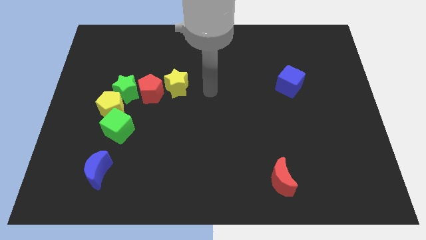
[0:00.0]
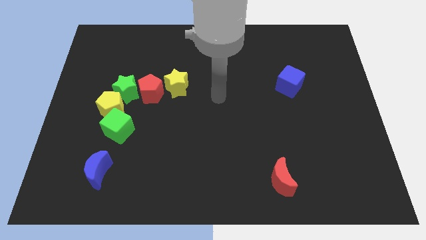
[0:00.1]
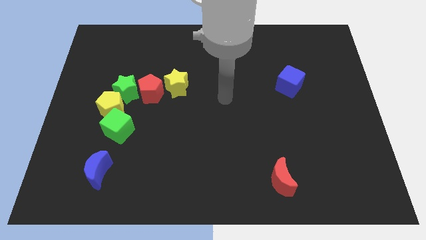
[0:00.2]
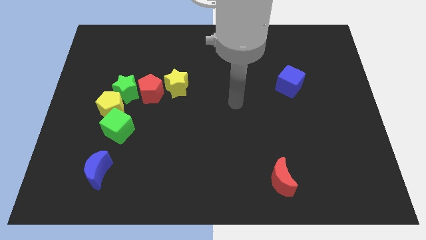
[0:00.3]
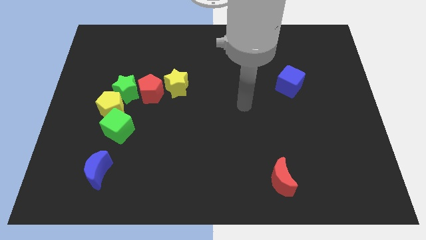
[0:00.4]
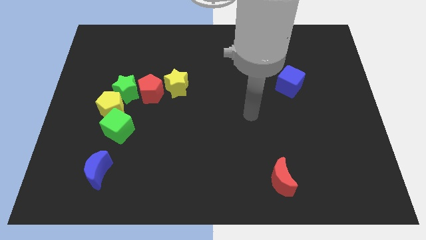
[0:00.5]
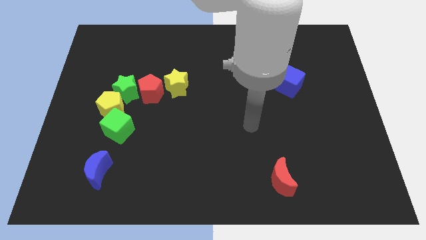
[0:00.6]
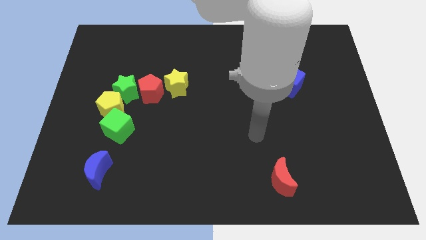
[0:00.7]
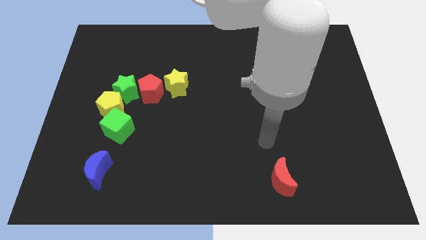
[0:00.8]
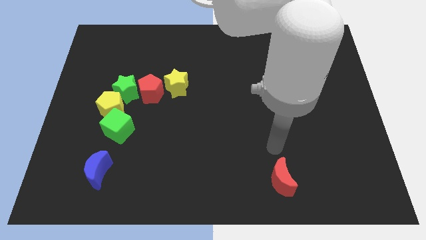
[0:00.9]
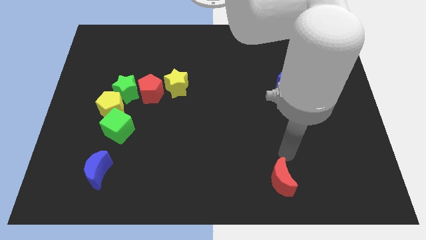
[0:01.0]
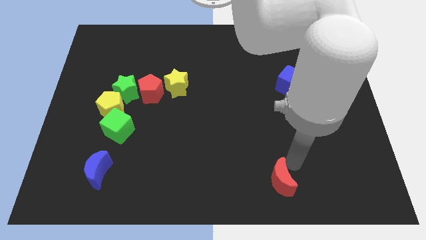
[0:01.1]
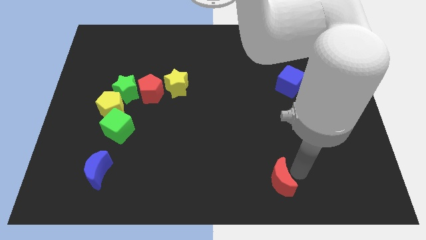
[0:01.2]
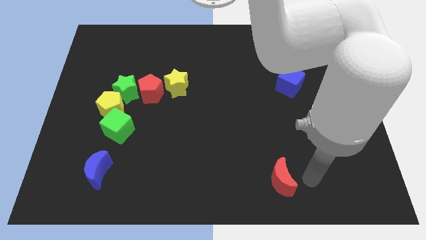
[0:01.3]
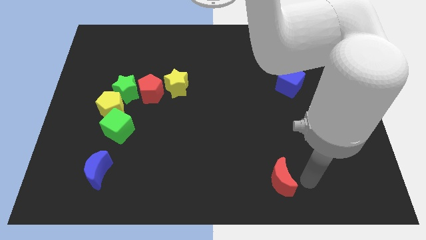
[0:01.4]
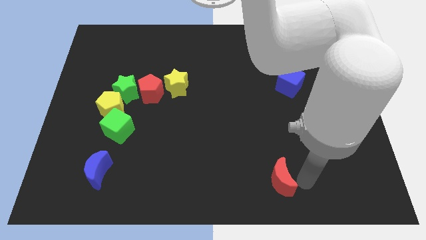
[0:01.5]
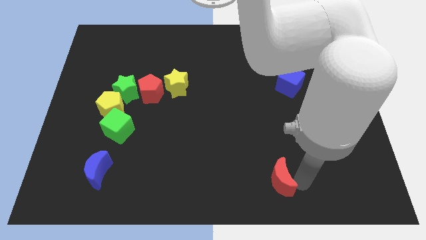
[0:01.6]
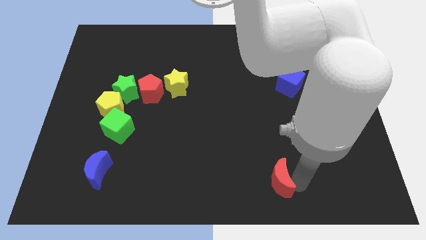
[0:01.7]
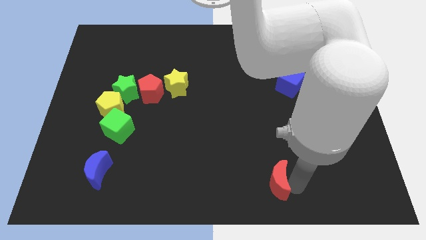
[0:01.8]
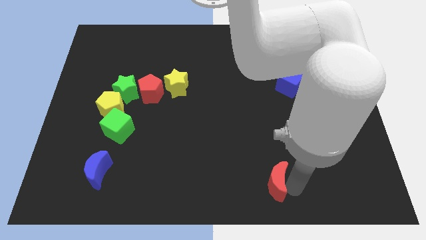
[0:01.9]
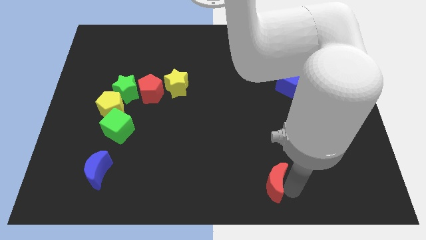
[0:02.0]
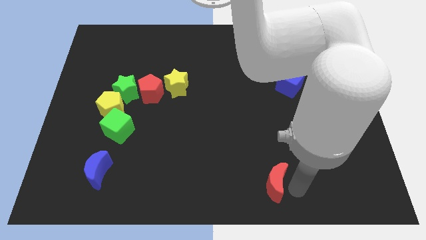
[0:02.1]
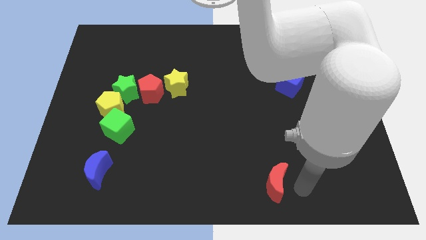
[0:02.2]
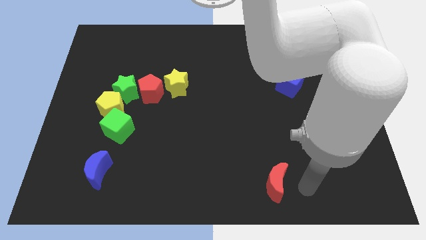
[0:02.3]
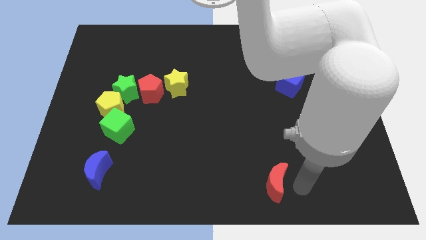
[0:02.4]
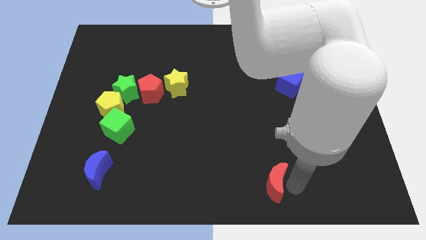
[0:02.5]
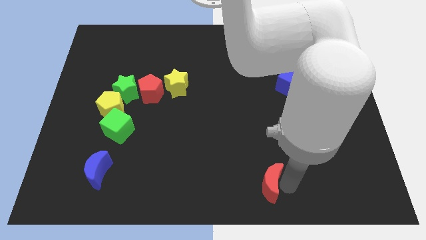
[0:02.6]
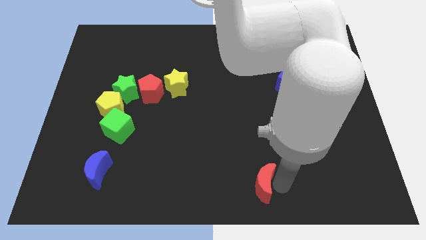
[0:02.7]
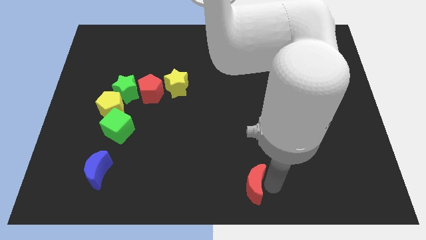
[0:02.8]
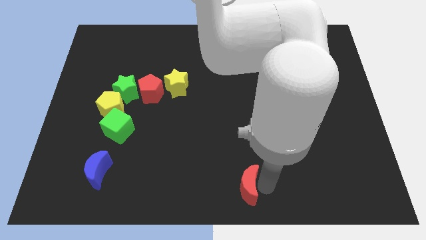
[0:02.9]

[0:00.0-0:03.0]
move the red moon to the left somewhat

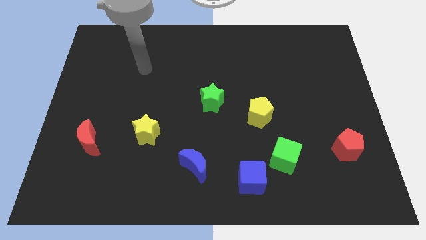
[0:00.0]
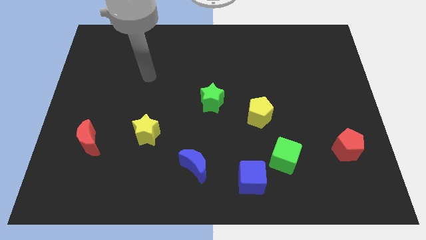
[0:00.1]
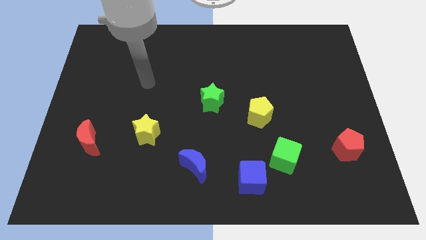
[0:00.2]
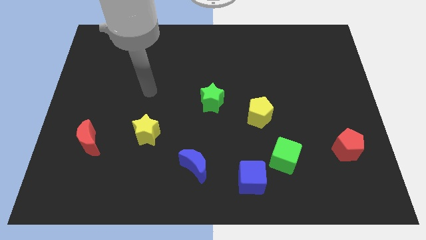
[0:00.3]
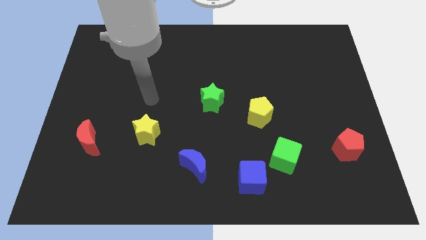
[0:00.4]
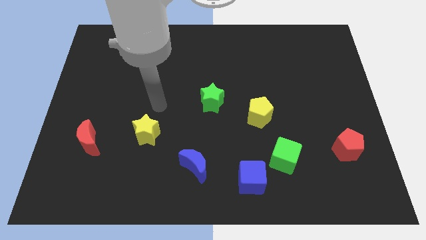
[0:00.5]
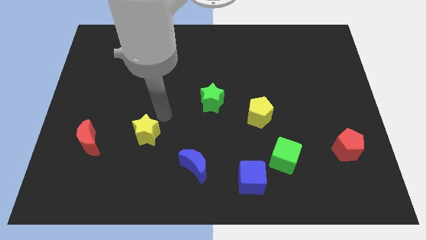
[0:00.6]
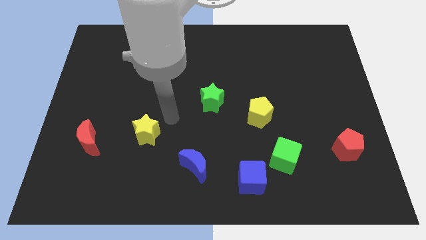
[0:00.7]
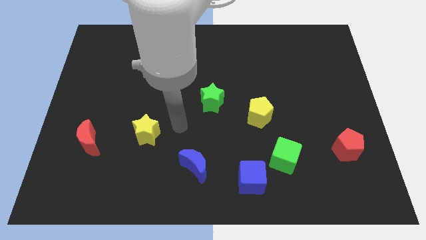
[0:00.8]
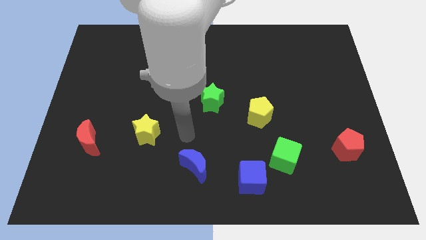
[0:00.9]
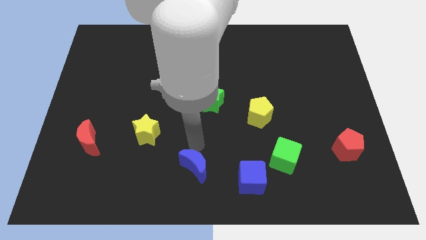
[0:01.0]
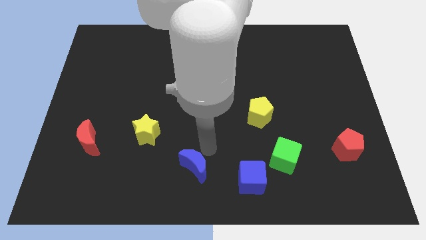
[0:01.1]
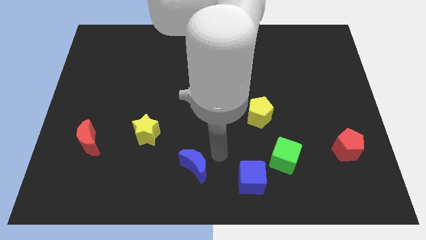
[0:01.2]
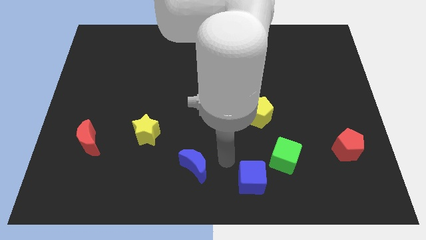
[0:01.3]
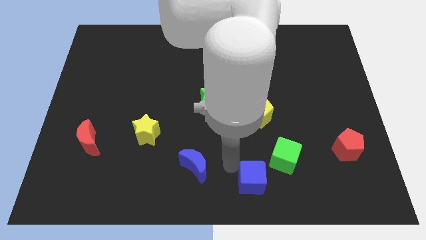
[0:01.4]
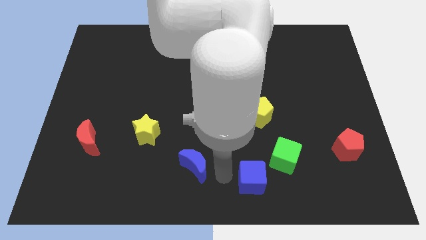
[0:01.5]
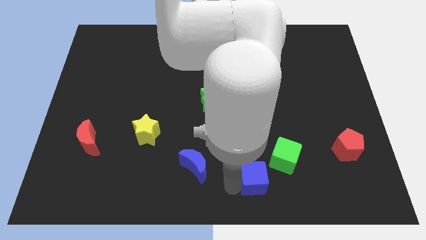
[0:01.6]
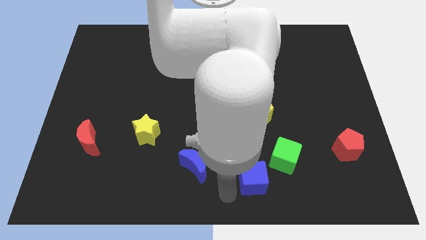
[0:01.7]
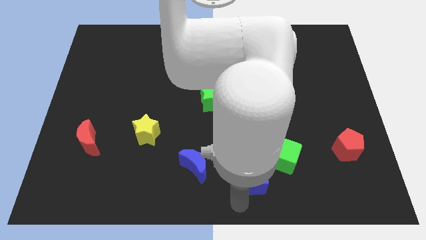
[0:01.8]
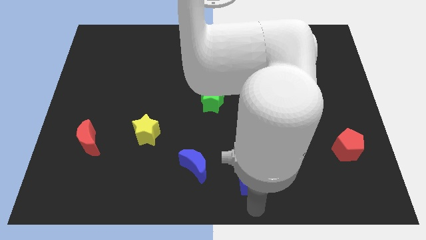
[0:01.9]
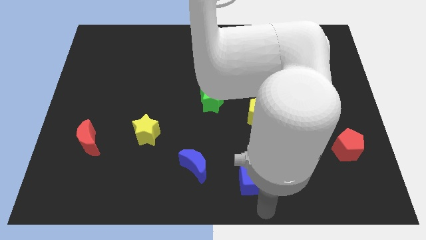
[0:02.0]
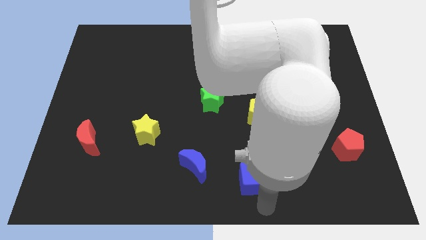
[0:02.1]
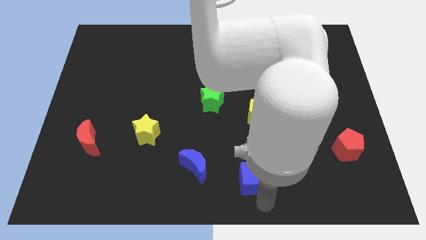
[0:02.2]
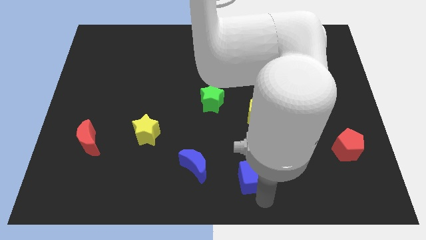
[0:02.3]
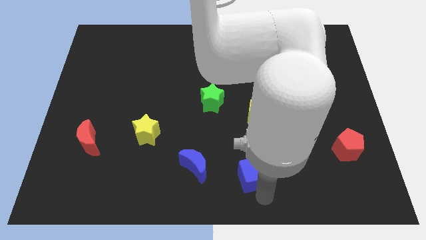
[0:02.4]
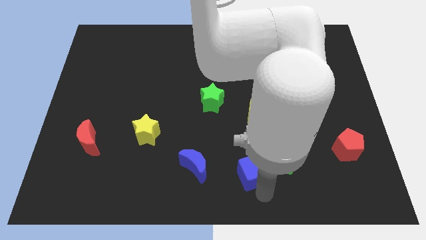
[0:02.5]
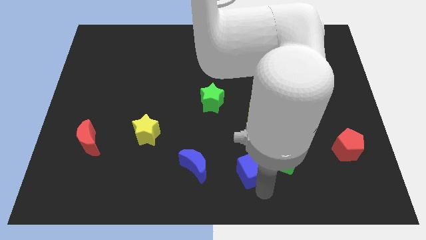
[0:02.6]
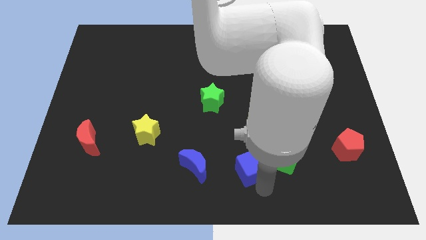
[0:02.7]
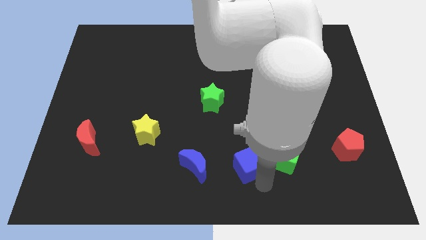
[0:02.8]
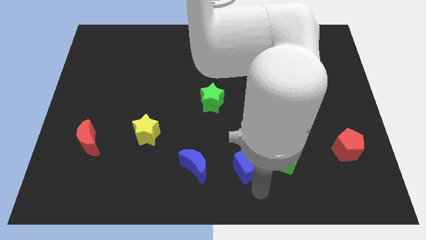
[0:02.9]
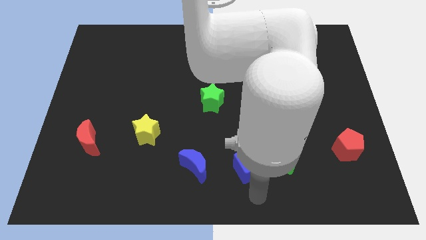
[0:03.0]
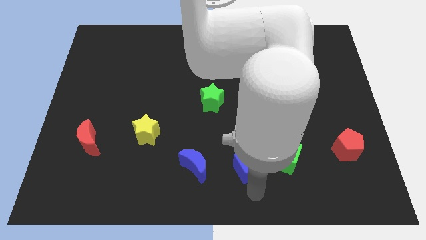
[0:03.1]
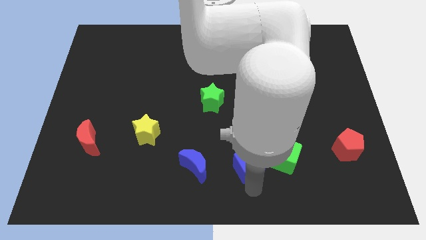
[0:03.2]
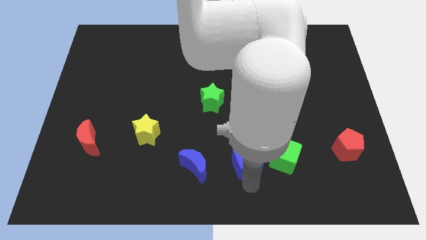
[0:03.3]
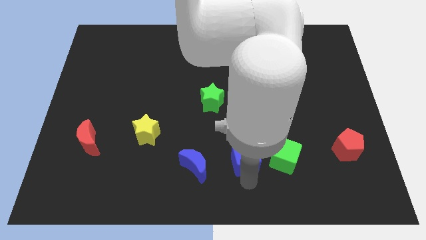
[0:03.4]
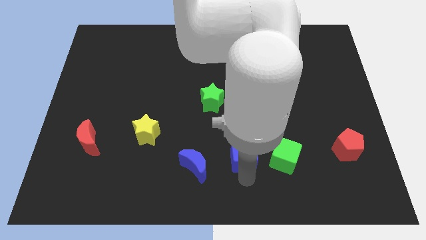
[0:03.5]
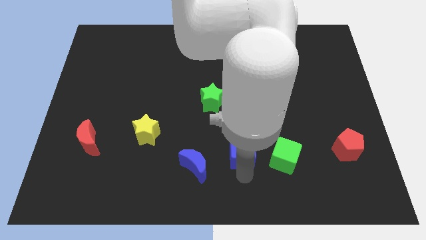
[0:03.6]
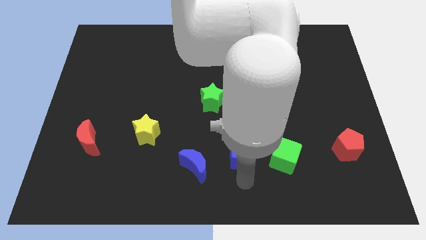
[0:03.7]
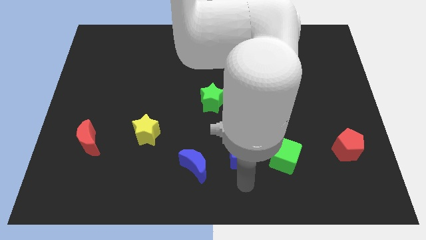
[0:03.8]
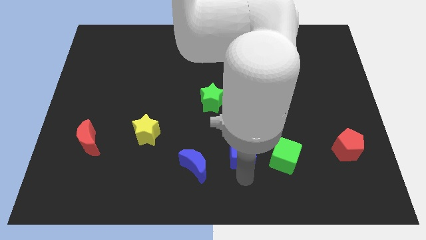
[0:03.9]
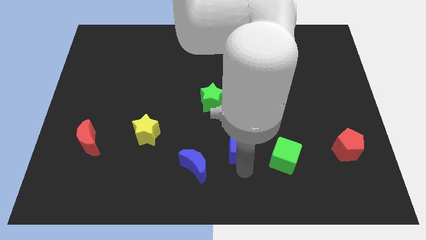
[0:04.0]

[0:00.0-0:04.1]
slide the blue cube up a bit

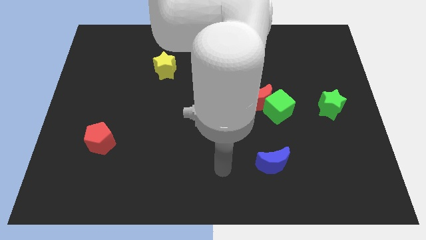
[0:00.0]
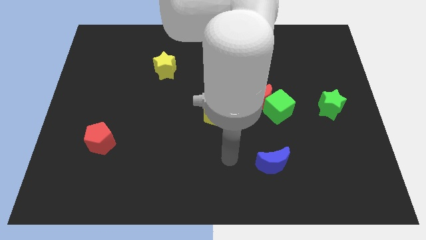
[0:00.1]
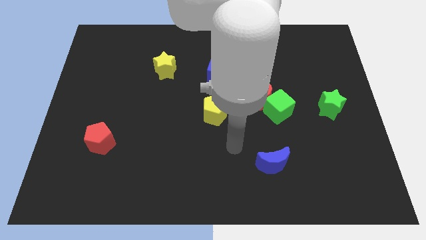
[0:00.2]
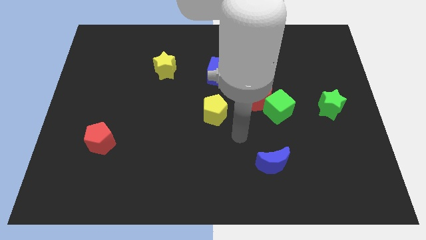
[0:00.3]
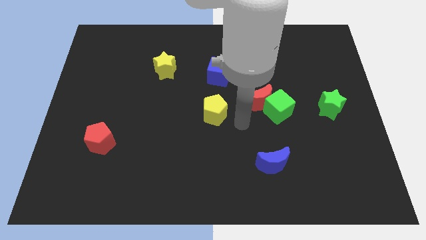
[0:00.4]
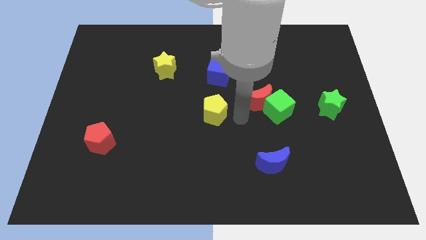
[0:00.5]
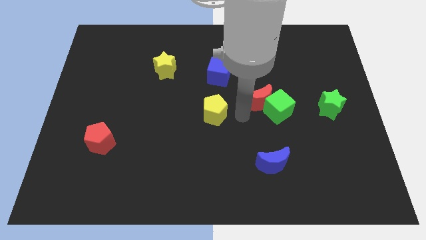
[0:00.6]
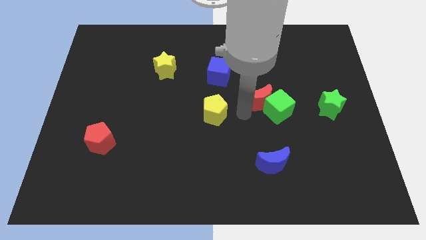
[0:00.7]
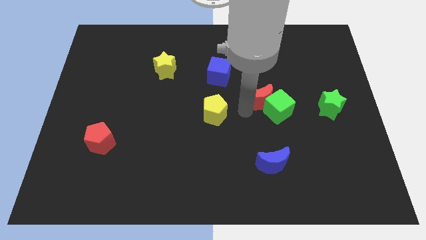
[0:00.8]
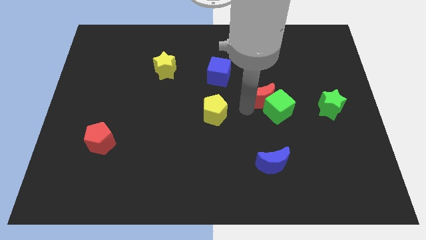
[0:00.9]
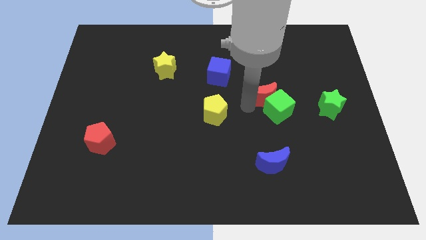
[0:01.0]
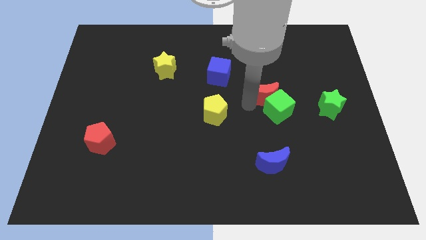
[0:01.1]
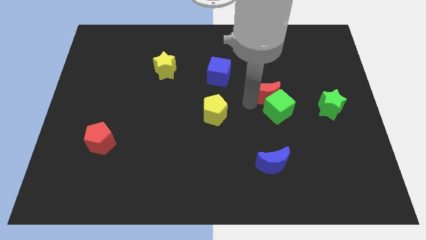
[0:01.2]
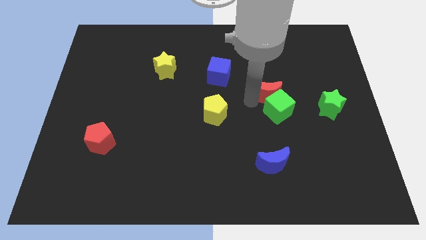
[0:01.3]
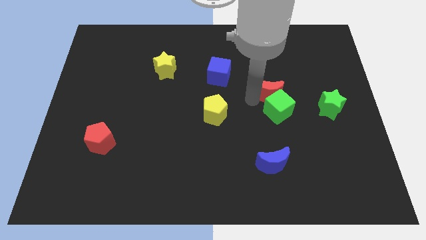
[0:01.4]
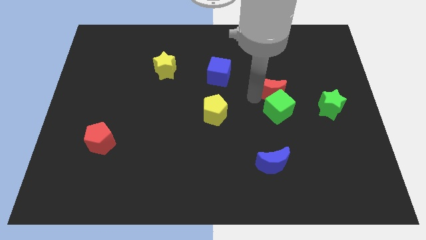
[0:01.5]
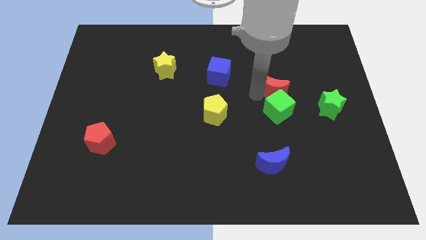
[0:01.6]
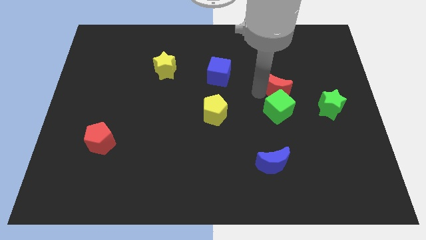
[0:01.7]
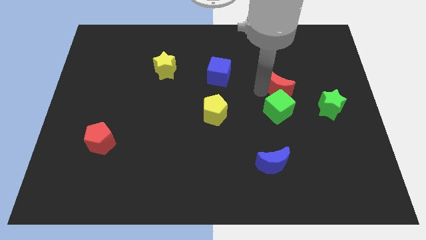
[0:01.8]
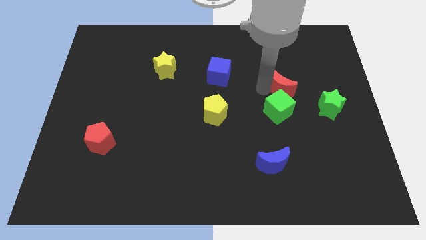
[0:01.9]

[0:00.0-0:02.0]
slightly slide the red moon up and to the right
